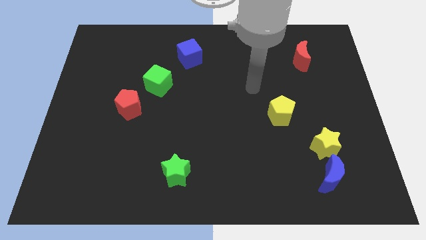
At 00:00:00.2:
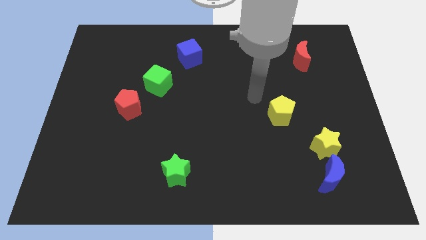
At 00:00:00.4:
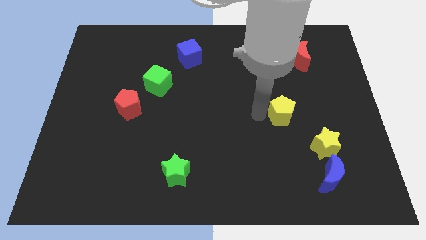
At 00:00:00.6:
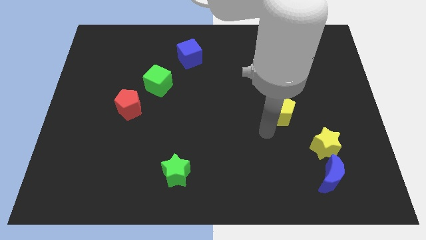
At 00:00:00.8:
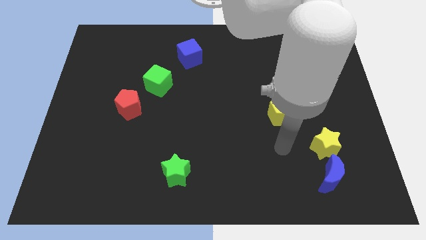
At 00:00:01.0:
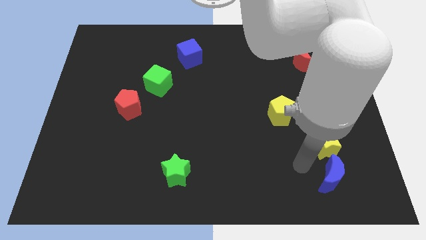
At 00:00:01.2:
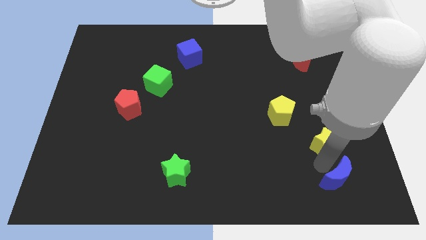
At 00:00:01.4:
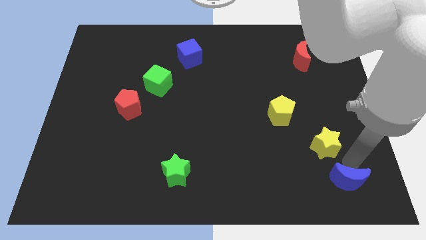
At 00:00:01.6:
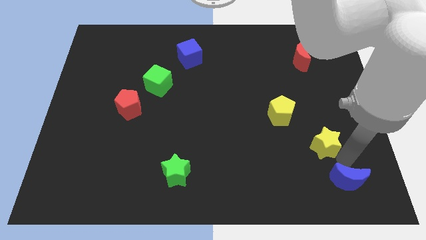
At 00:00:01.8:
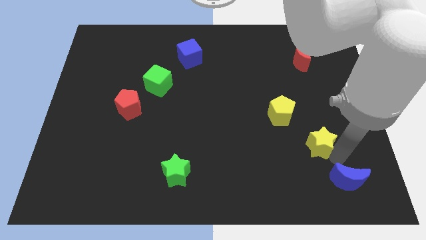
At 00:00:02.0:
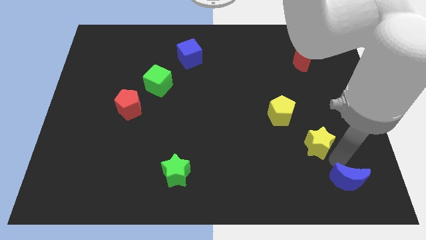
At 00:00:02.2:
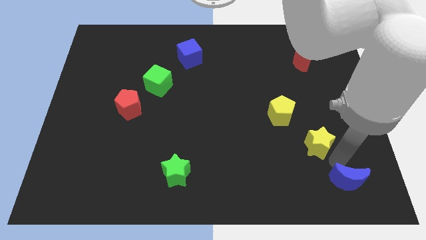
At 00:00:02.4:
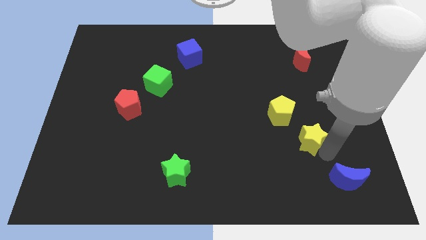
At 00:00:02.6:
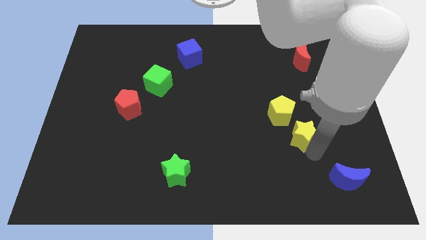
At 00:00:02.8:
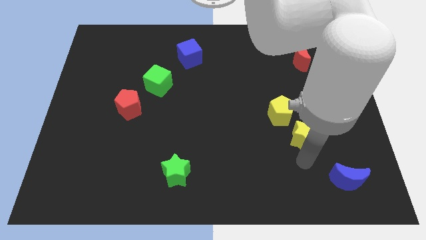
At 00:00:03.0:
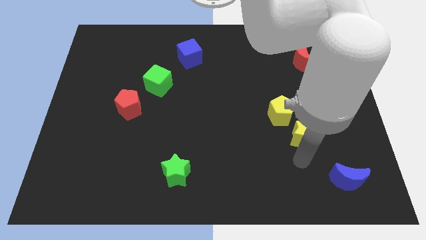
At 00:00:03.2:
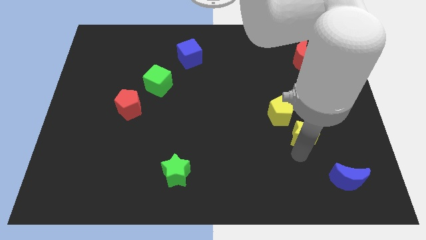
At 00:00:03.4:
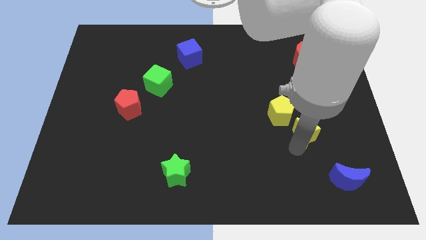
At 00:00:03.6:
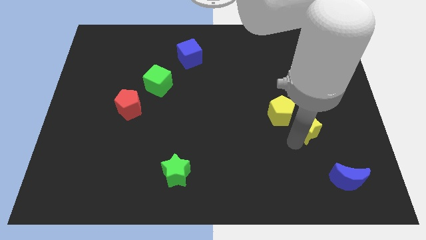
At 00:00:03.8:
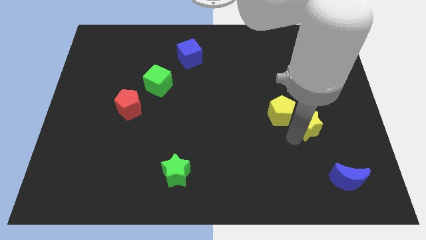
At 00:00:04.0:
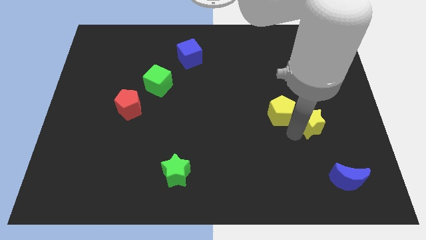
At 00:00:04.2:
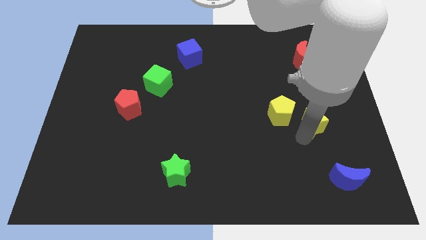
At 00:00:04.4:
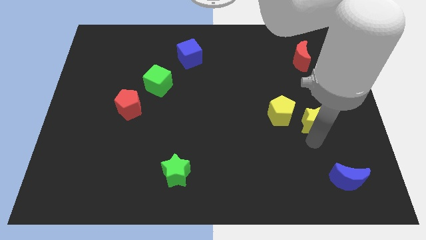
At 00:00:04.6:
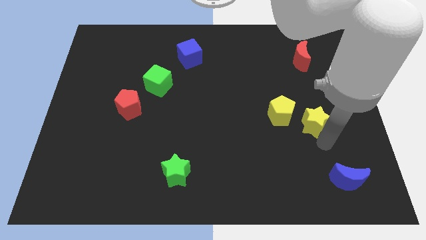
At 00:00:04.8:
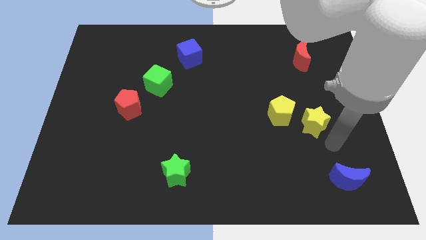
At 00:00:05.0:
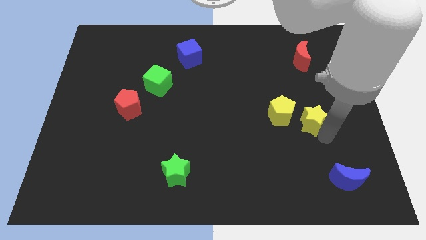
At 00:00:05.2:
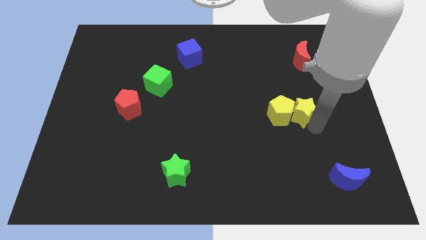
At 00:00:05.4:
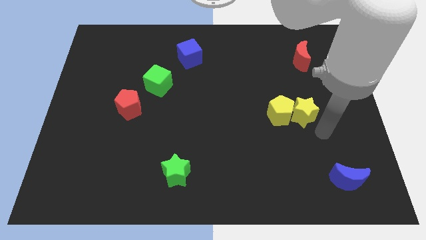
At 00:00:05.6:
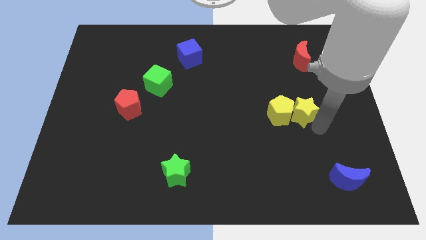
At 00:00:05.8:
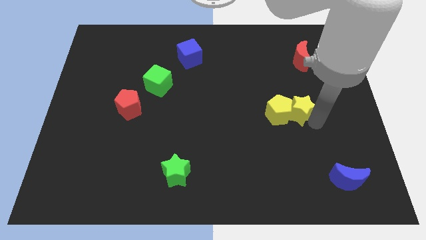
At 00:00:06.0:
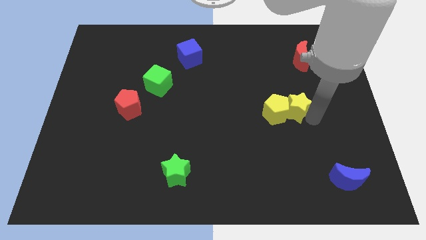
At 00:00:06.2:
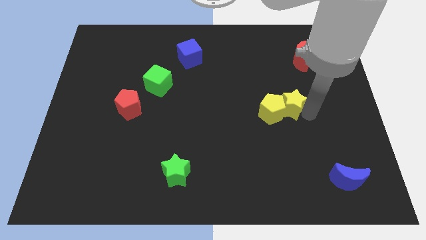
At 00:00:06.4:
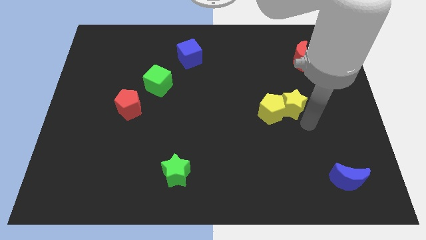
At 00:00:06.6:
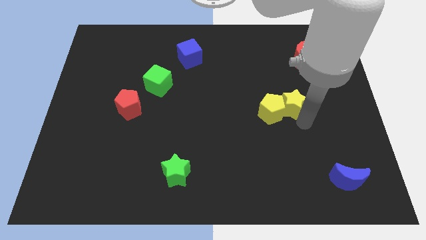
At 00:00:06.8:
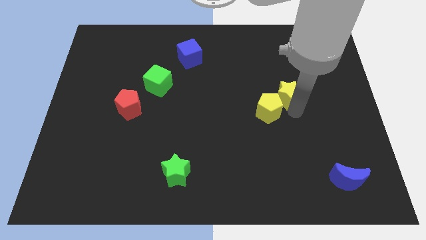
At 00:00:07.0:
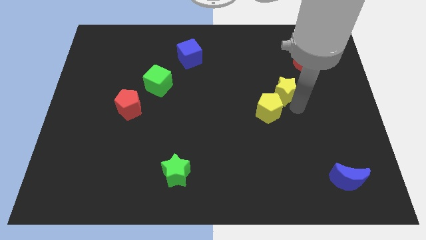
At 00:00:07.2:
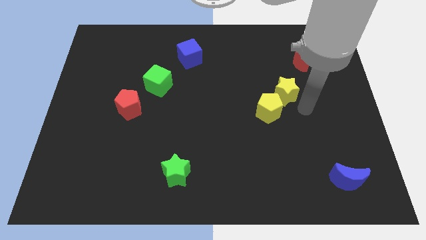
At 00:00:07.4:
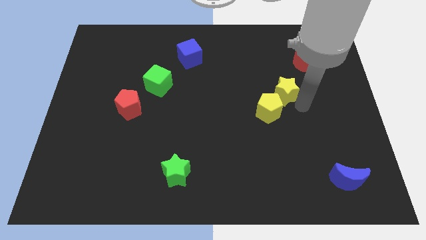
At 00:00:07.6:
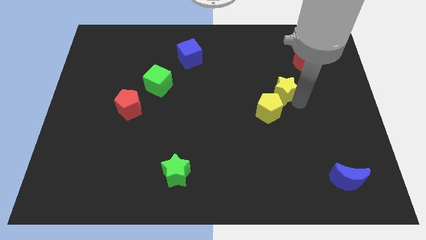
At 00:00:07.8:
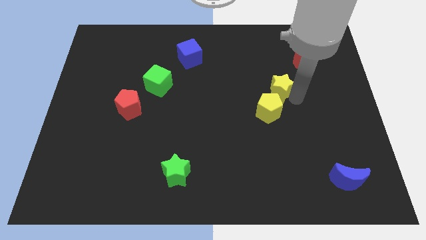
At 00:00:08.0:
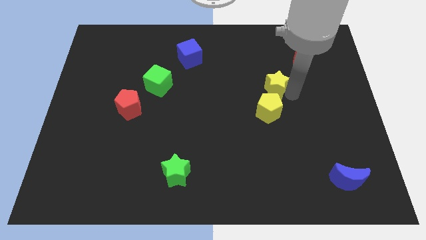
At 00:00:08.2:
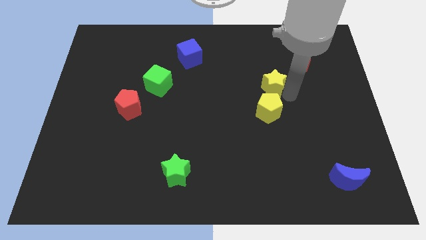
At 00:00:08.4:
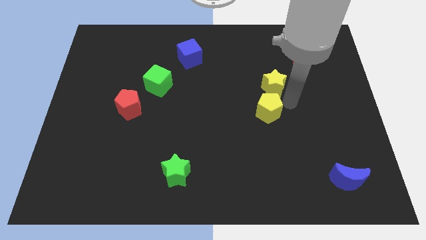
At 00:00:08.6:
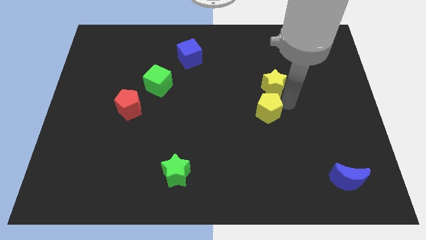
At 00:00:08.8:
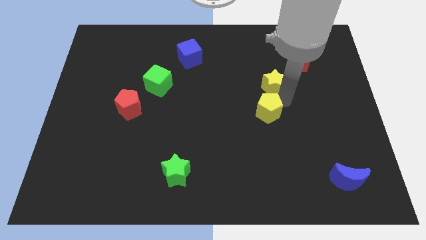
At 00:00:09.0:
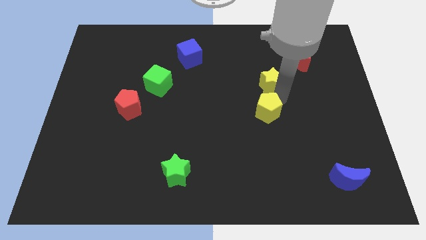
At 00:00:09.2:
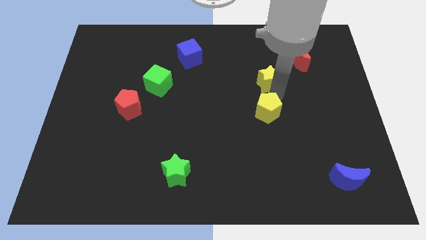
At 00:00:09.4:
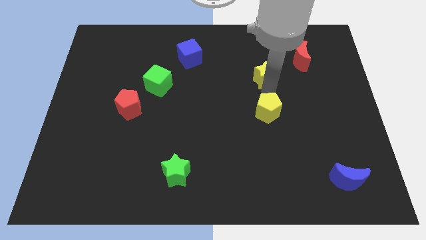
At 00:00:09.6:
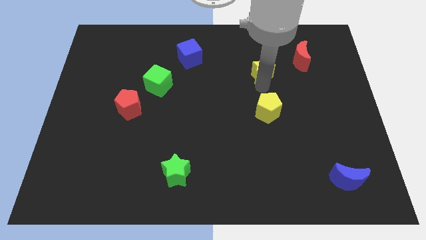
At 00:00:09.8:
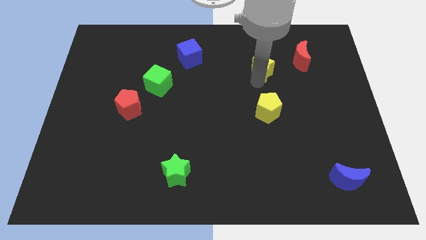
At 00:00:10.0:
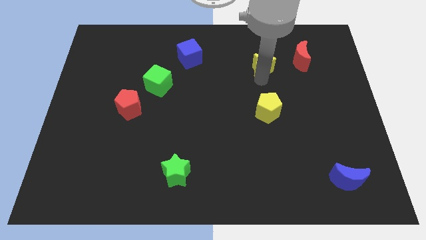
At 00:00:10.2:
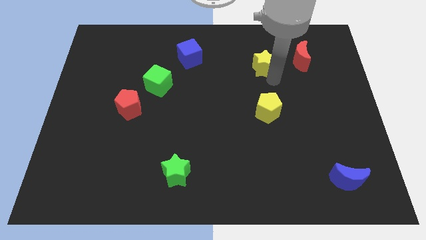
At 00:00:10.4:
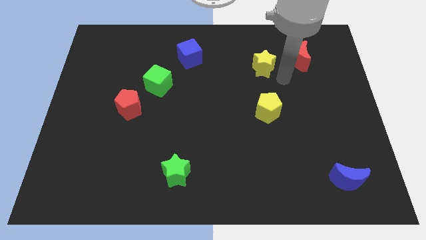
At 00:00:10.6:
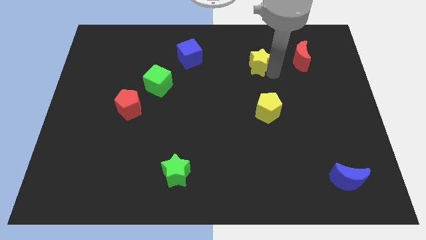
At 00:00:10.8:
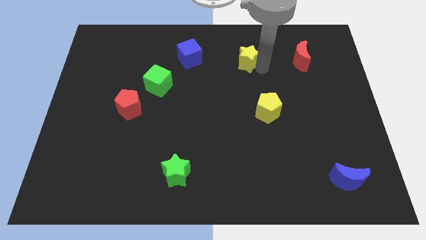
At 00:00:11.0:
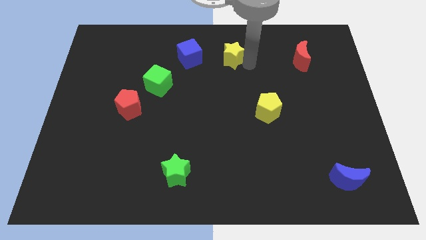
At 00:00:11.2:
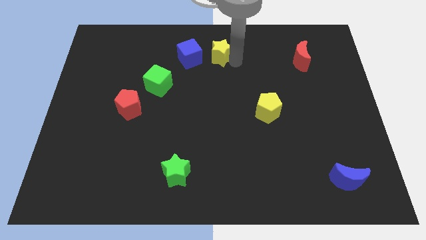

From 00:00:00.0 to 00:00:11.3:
move the yellow star to the top side
